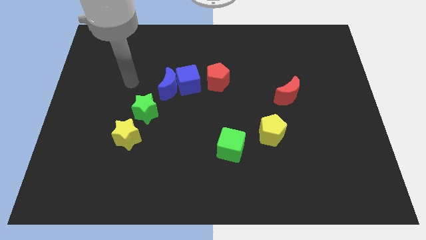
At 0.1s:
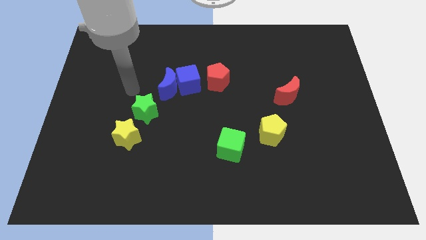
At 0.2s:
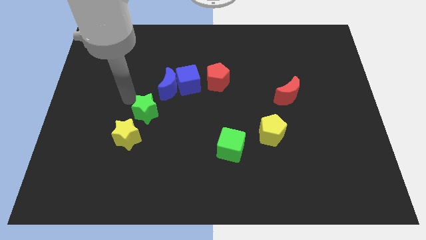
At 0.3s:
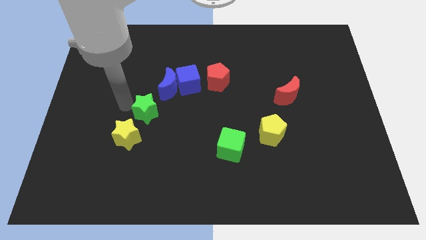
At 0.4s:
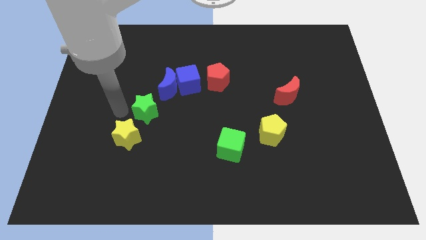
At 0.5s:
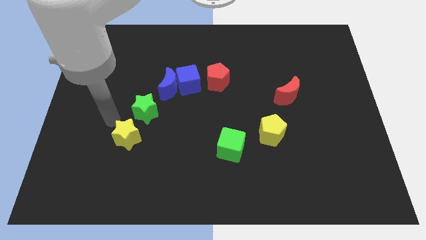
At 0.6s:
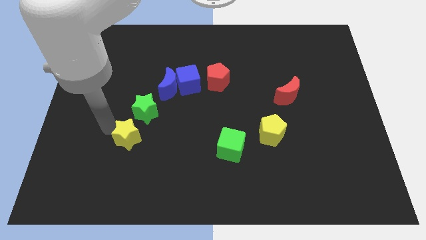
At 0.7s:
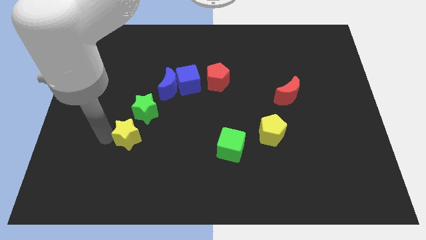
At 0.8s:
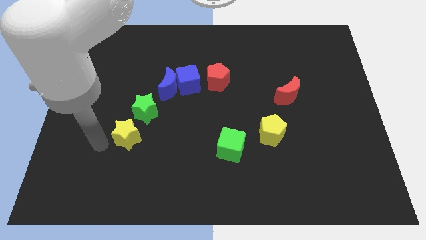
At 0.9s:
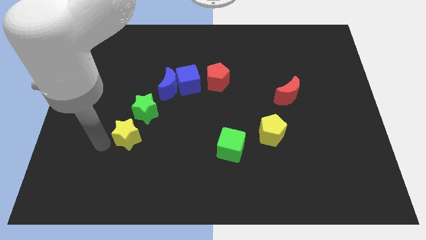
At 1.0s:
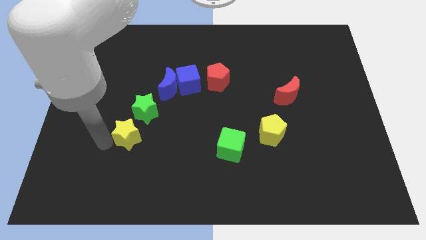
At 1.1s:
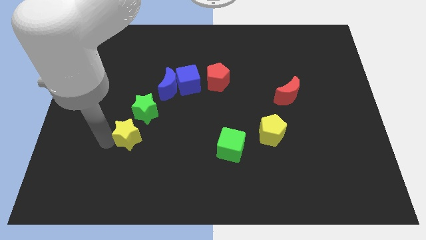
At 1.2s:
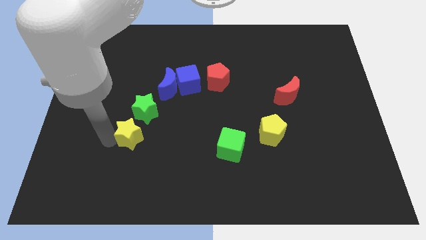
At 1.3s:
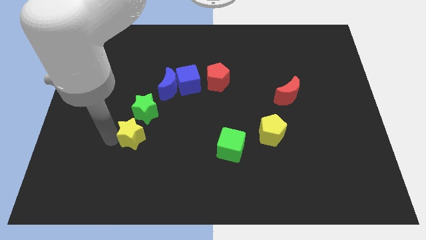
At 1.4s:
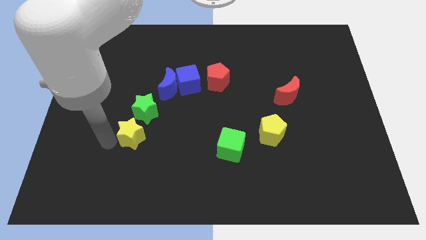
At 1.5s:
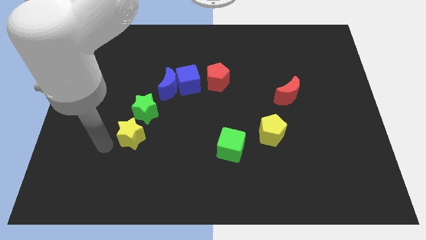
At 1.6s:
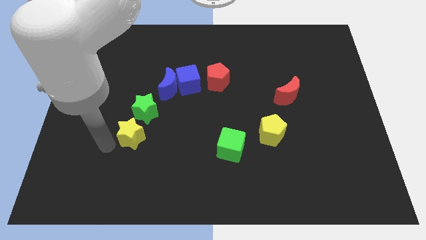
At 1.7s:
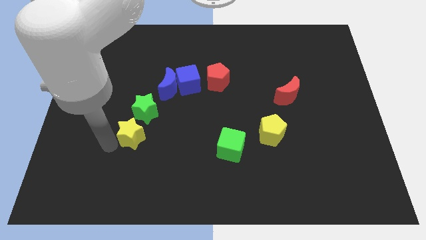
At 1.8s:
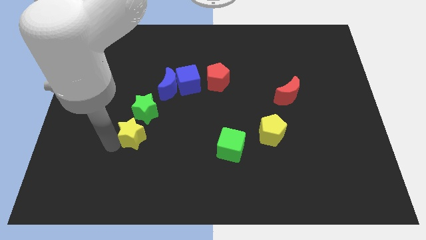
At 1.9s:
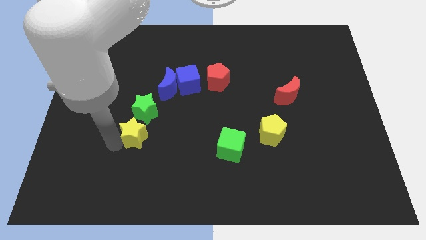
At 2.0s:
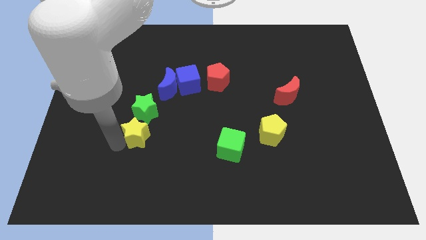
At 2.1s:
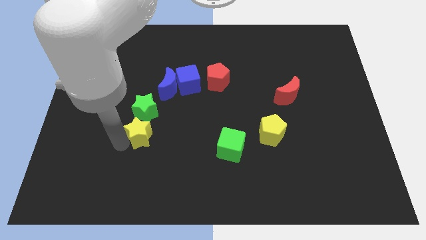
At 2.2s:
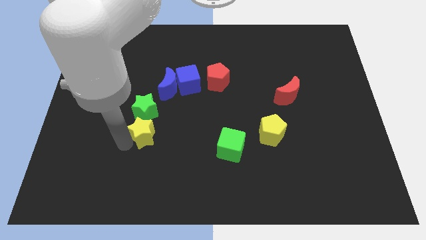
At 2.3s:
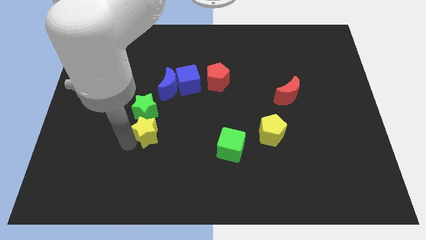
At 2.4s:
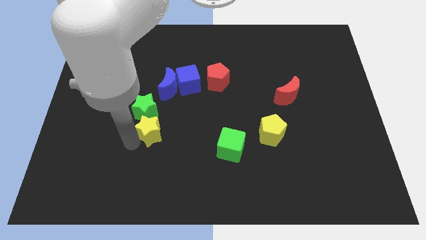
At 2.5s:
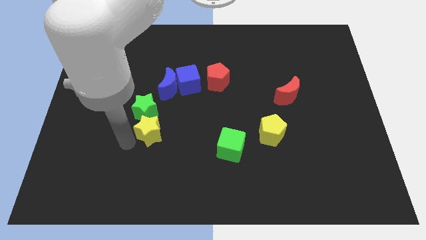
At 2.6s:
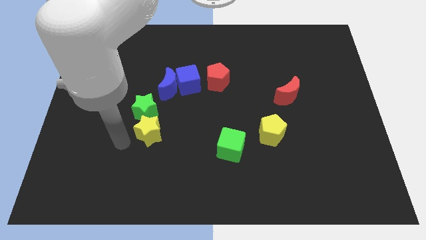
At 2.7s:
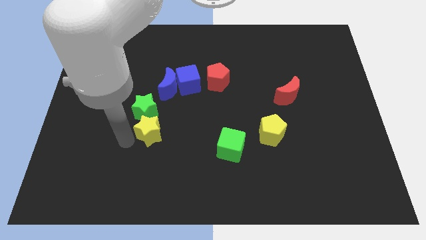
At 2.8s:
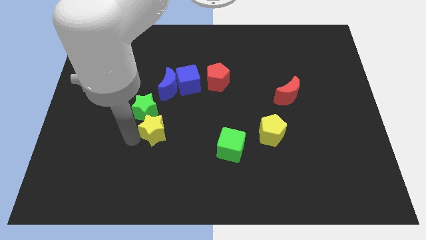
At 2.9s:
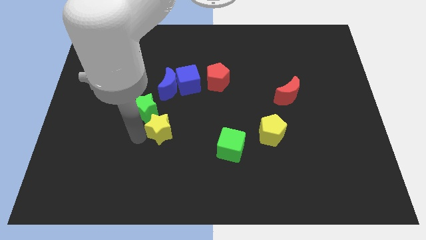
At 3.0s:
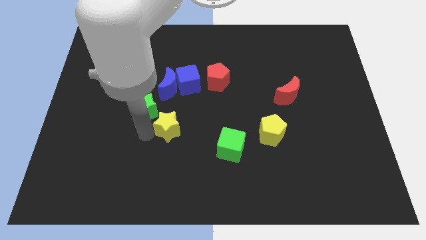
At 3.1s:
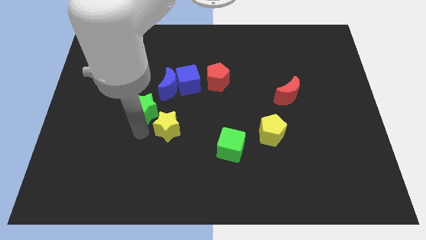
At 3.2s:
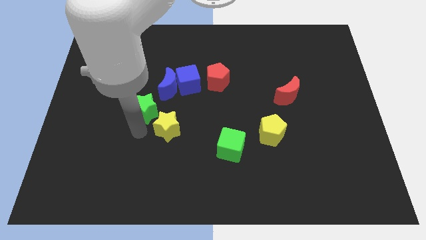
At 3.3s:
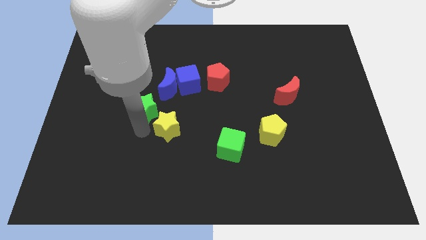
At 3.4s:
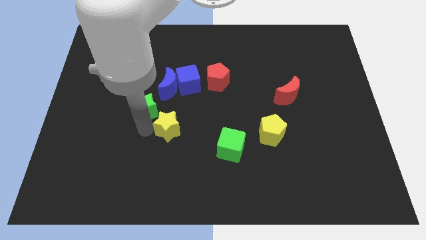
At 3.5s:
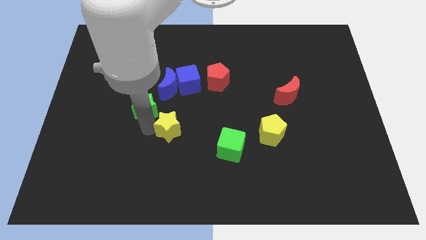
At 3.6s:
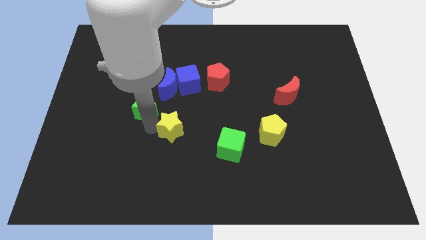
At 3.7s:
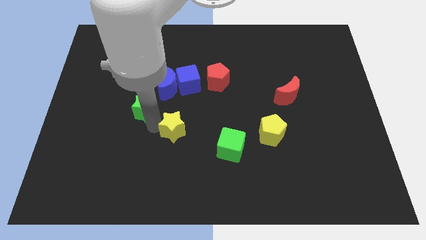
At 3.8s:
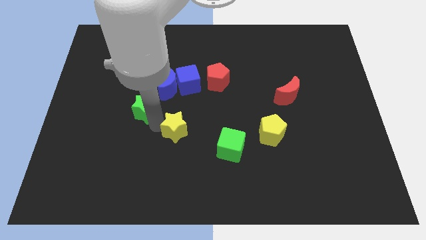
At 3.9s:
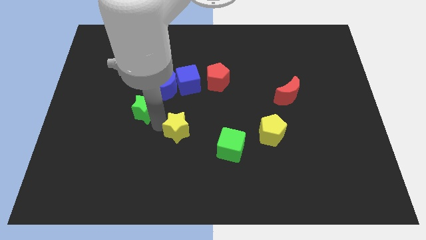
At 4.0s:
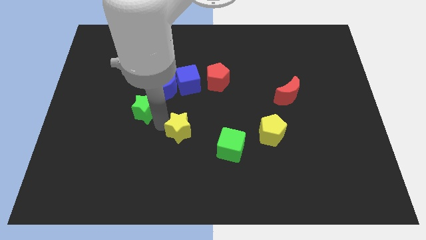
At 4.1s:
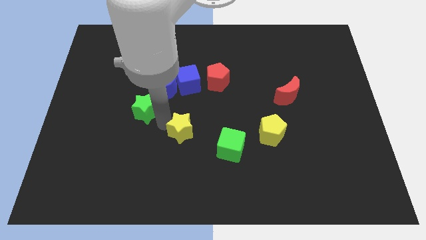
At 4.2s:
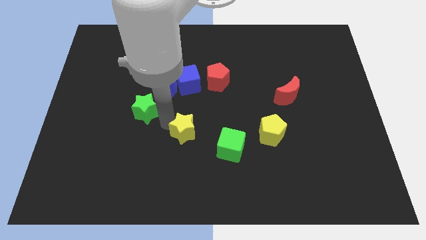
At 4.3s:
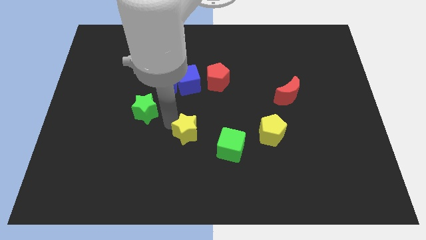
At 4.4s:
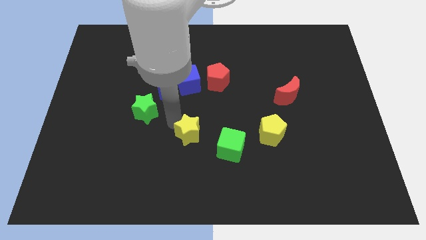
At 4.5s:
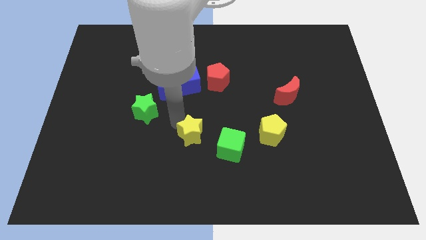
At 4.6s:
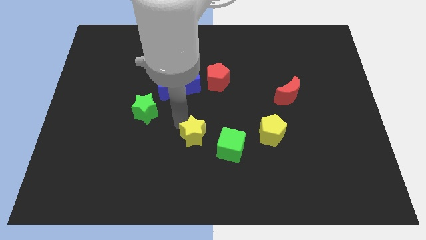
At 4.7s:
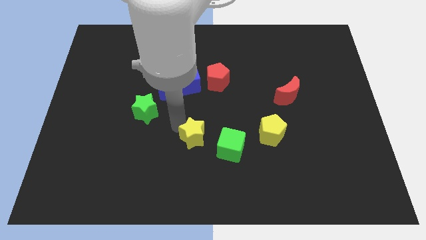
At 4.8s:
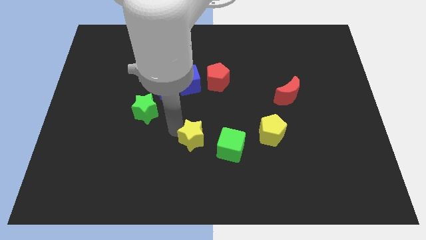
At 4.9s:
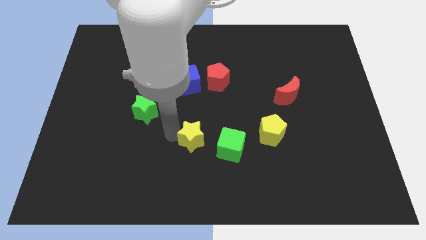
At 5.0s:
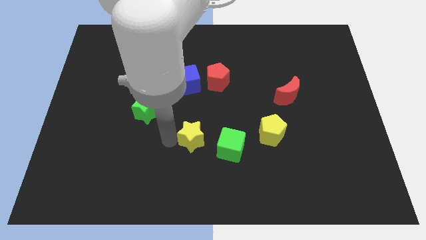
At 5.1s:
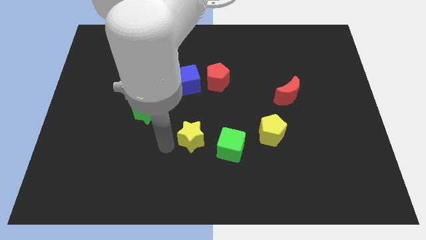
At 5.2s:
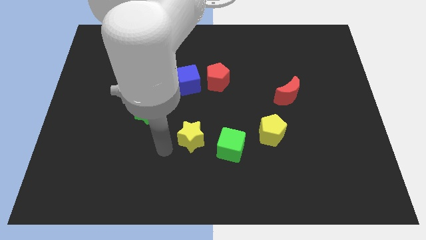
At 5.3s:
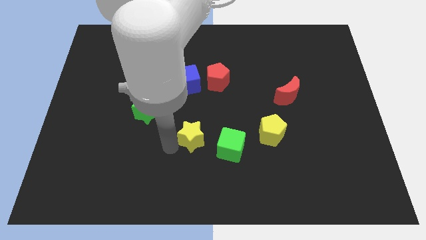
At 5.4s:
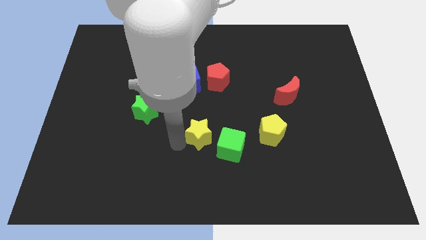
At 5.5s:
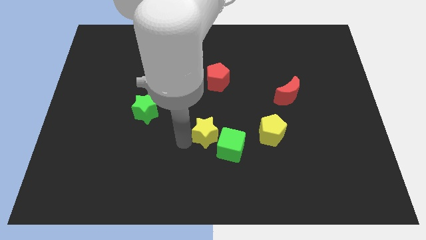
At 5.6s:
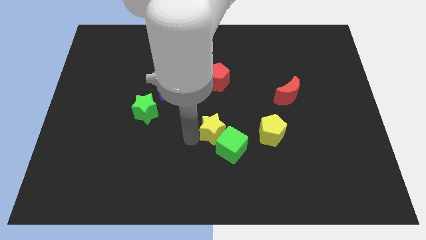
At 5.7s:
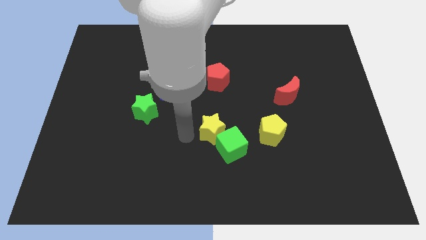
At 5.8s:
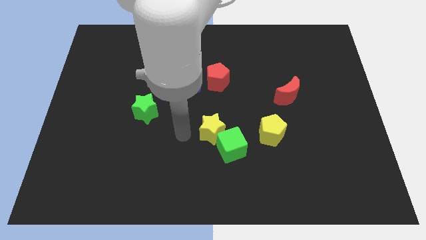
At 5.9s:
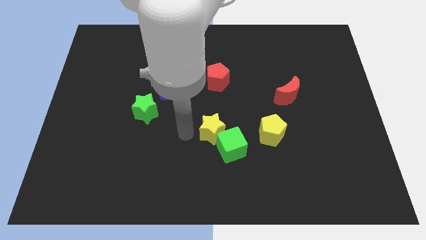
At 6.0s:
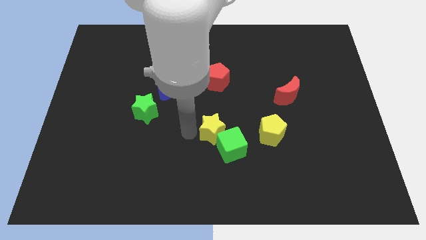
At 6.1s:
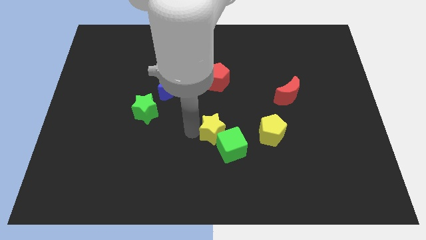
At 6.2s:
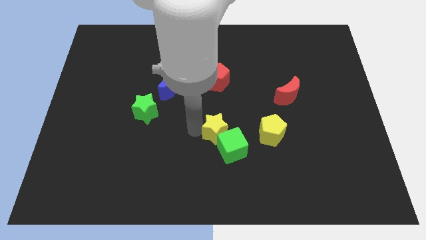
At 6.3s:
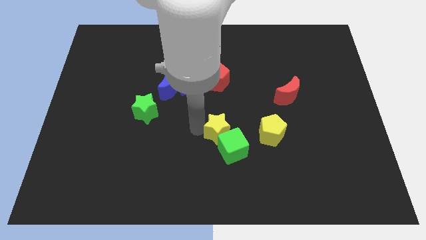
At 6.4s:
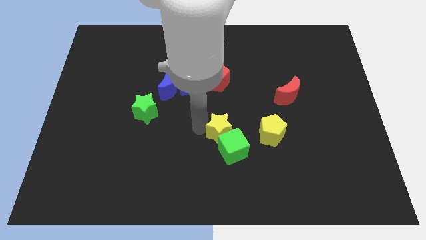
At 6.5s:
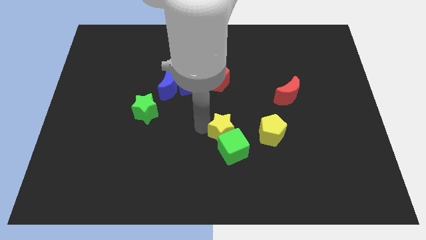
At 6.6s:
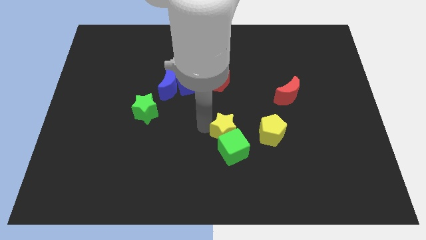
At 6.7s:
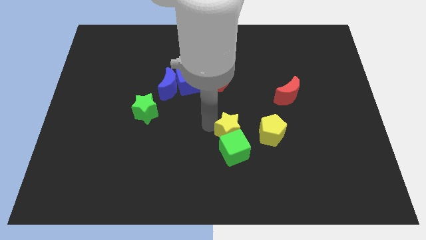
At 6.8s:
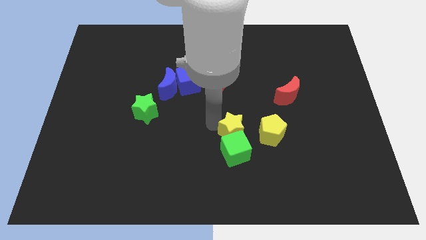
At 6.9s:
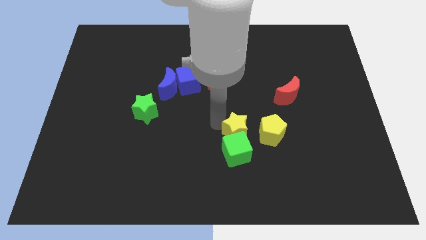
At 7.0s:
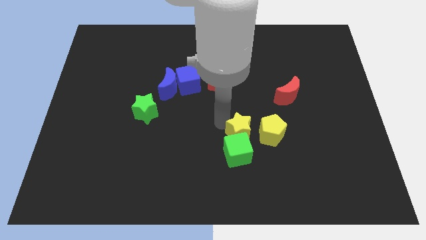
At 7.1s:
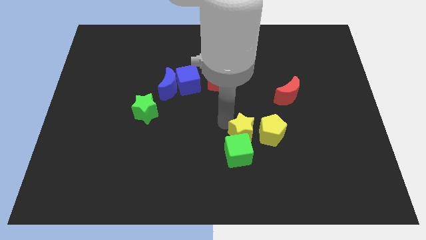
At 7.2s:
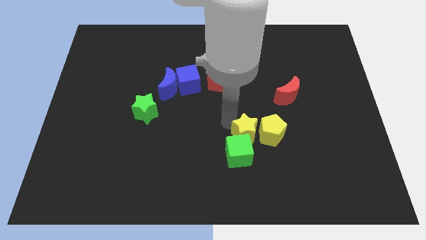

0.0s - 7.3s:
slide the yellow star towards the yellow pentagon

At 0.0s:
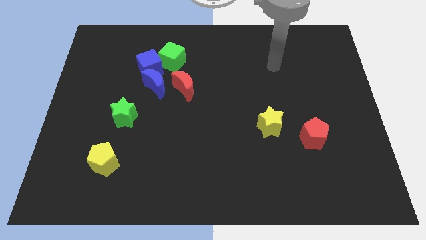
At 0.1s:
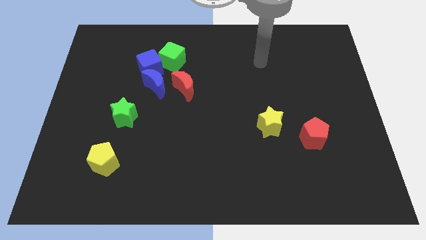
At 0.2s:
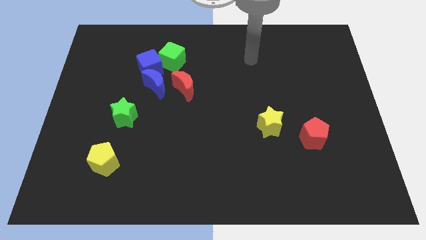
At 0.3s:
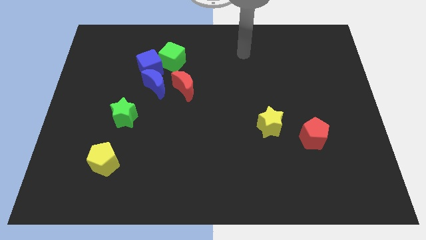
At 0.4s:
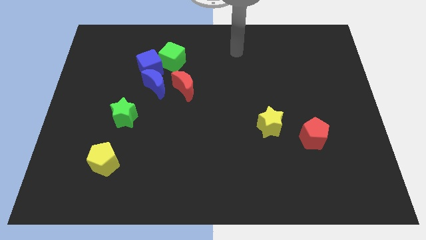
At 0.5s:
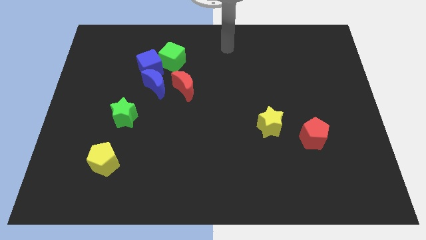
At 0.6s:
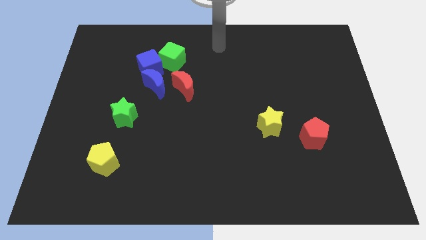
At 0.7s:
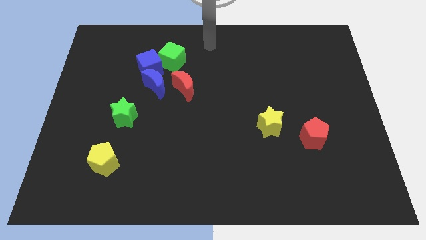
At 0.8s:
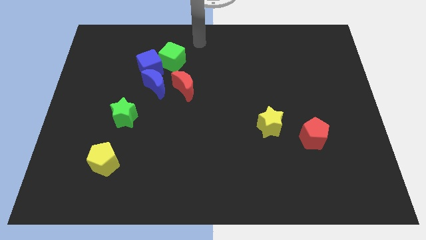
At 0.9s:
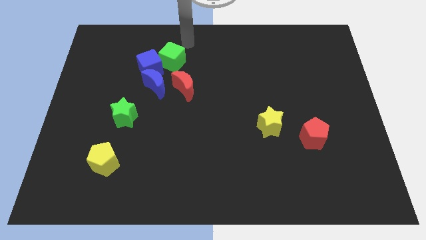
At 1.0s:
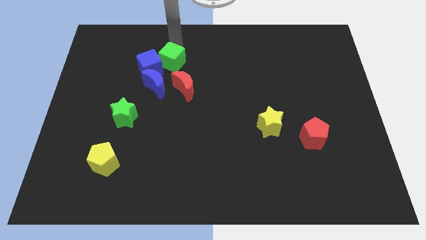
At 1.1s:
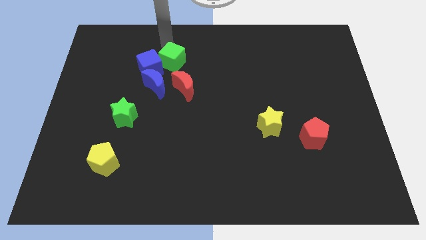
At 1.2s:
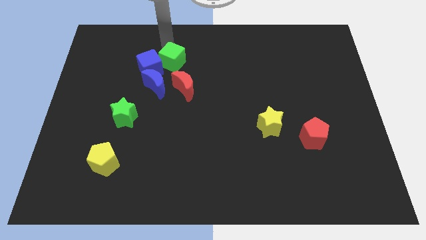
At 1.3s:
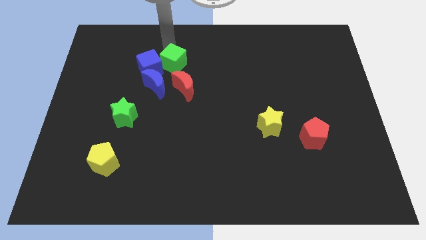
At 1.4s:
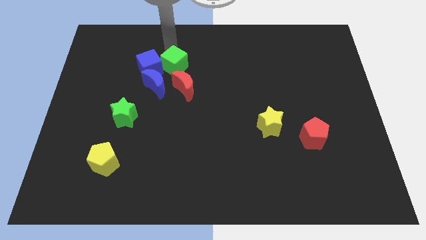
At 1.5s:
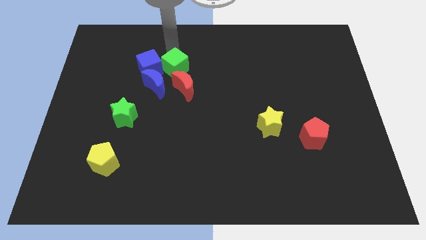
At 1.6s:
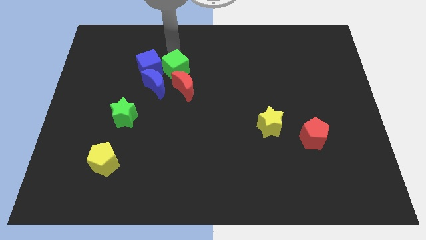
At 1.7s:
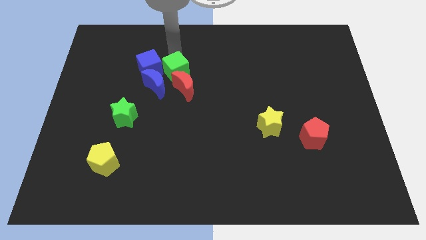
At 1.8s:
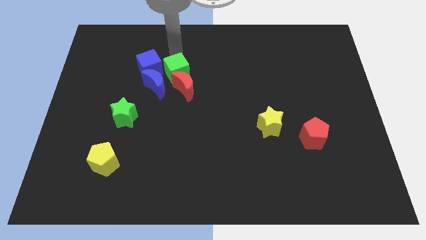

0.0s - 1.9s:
move the green cube next to the red moon
